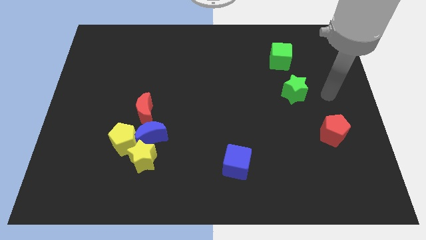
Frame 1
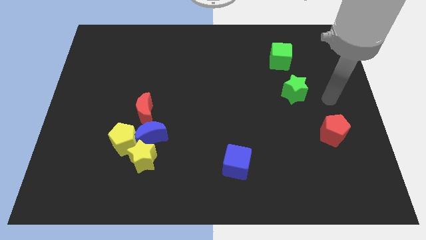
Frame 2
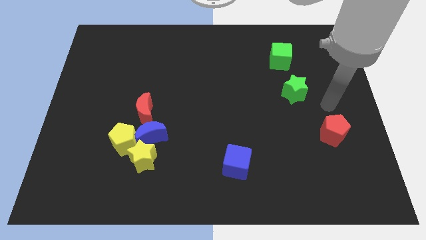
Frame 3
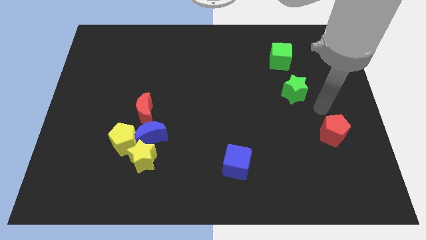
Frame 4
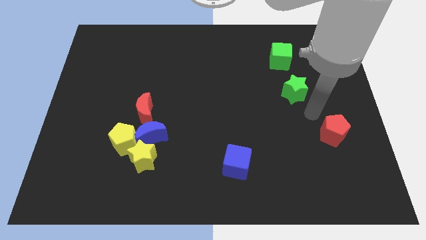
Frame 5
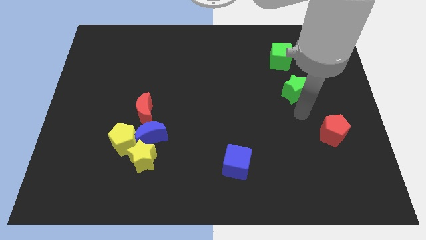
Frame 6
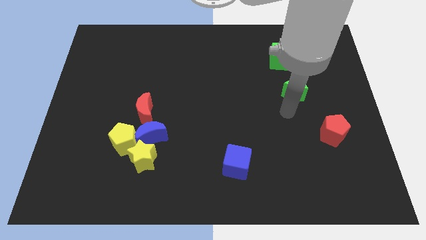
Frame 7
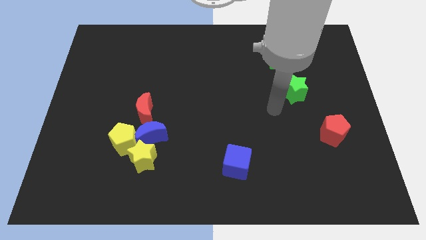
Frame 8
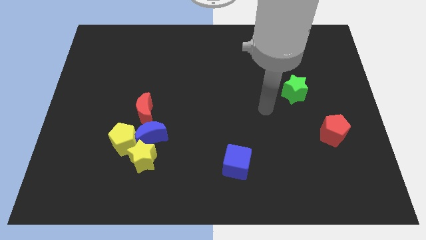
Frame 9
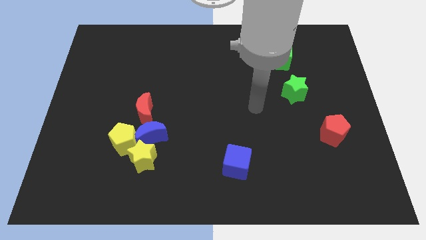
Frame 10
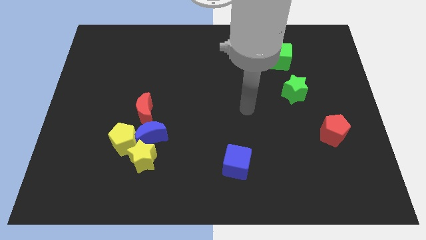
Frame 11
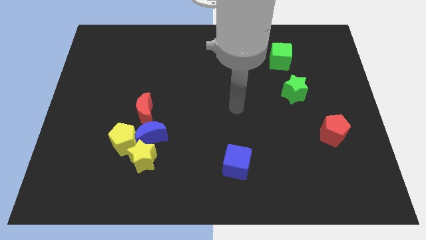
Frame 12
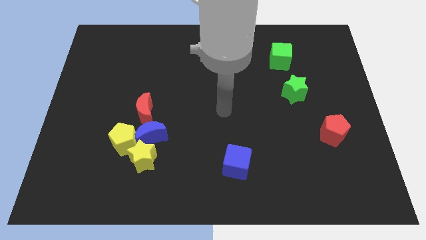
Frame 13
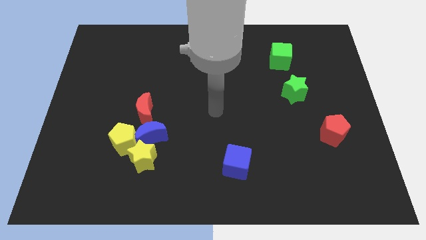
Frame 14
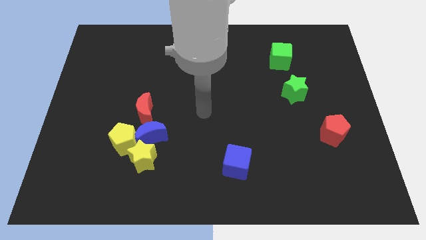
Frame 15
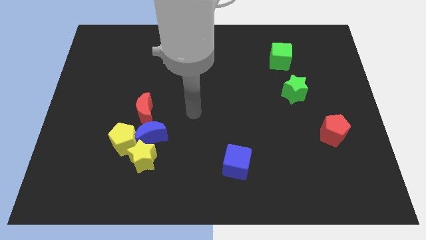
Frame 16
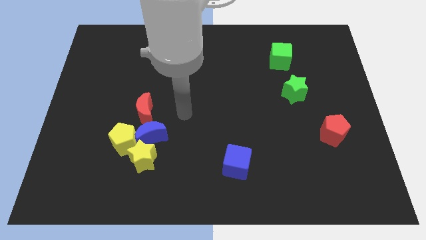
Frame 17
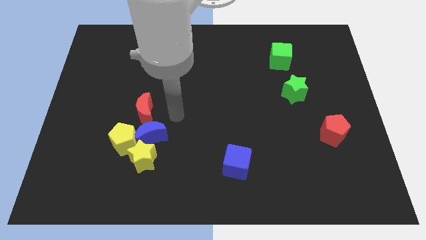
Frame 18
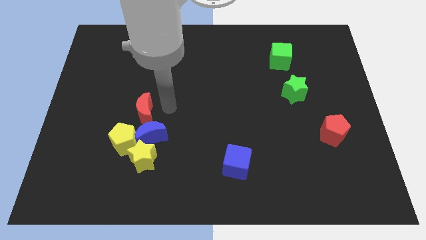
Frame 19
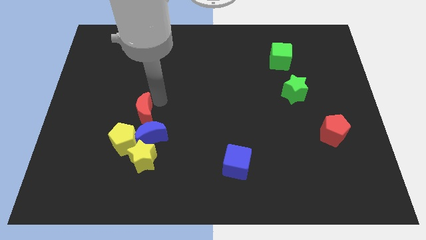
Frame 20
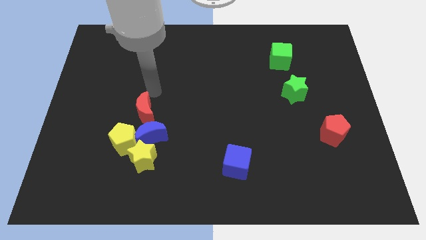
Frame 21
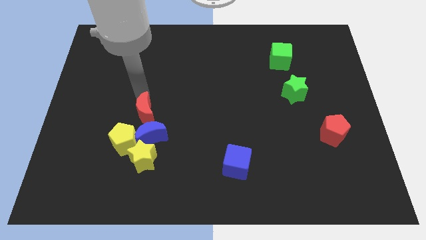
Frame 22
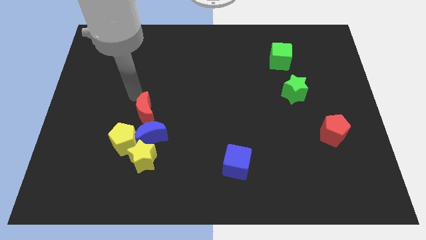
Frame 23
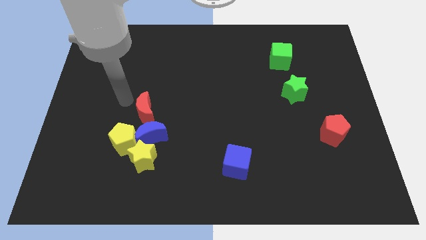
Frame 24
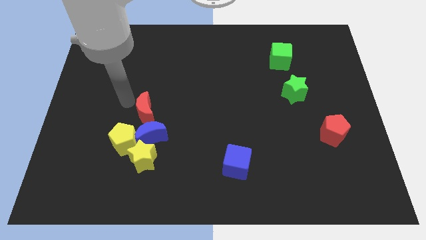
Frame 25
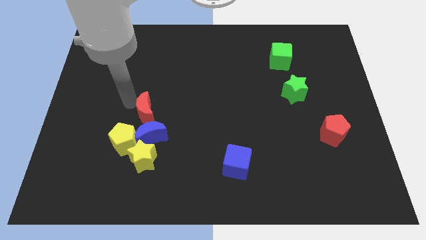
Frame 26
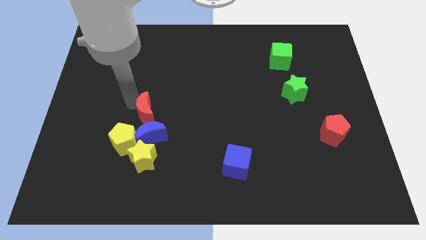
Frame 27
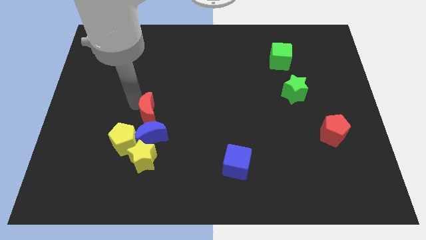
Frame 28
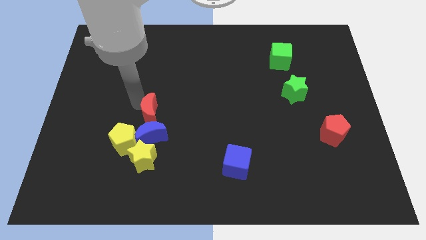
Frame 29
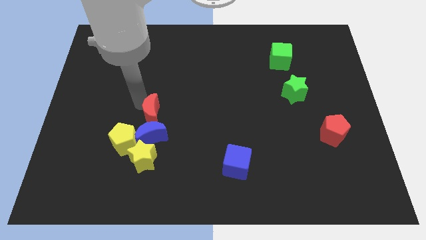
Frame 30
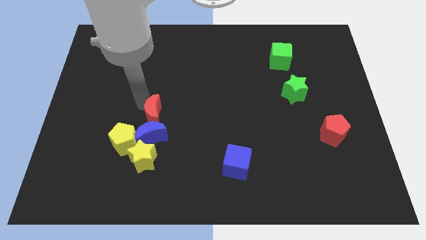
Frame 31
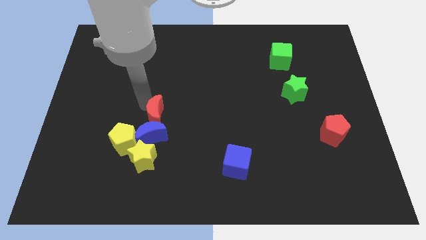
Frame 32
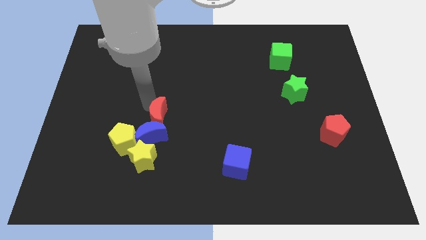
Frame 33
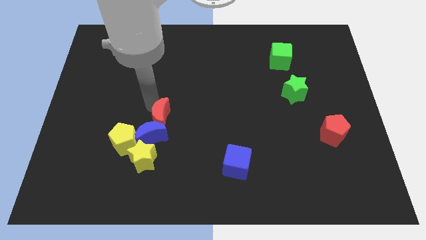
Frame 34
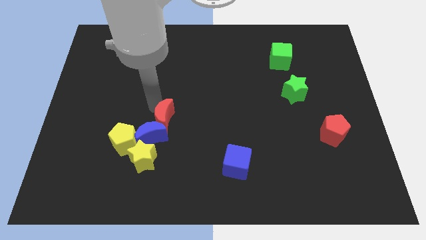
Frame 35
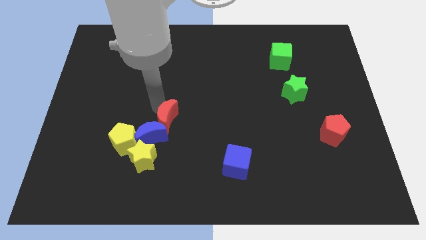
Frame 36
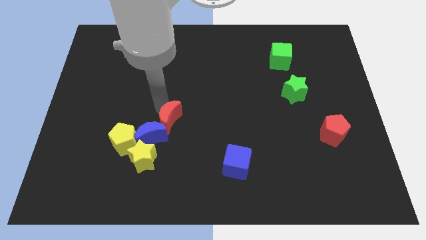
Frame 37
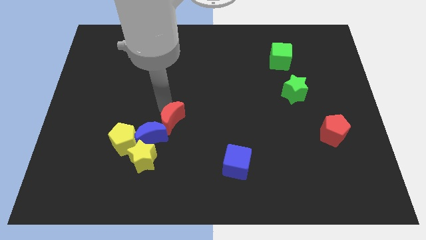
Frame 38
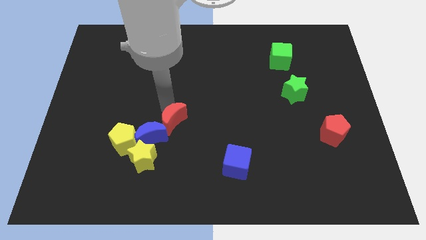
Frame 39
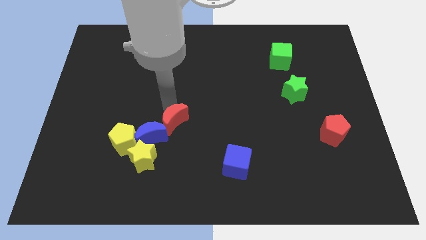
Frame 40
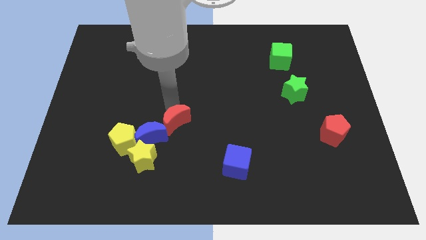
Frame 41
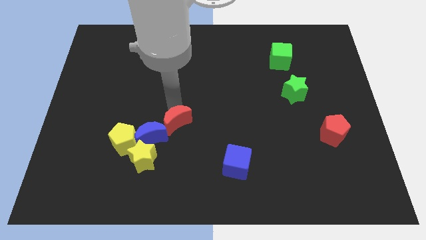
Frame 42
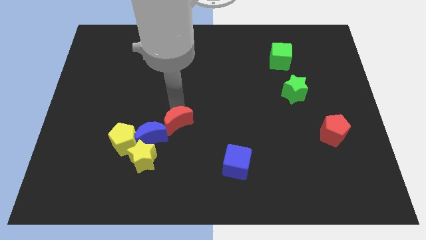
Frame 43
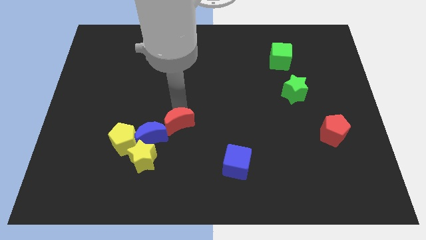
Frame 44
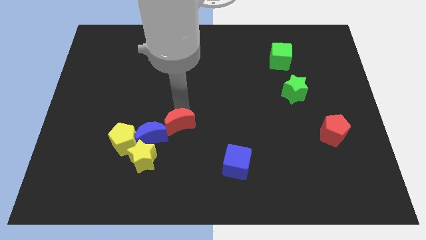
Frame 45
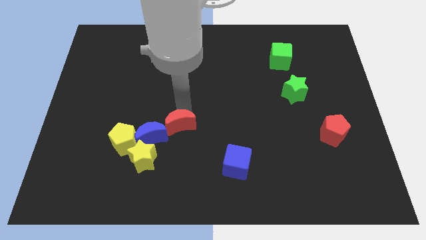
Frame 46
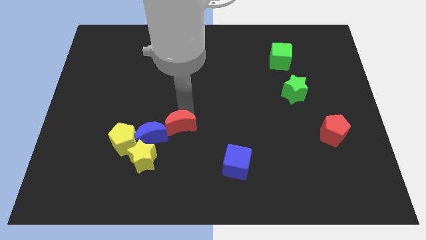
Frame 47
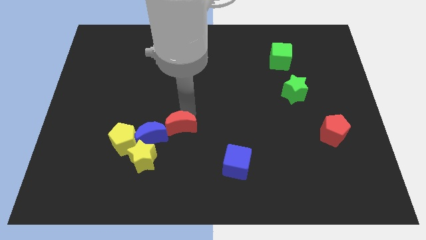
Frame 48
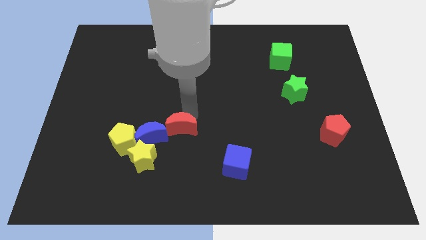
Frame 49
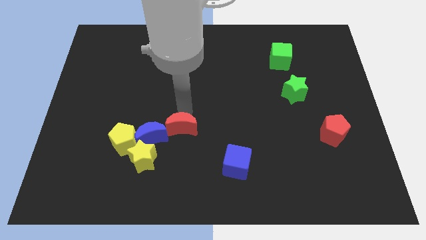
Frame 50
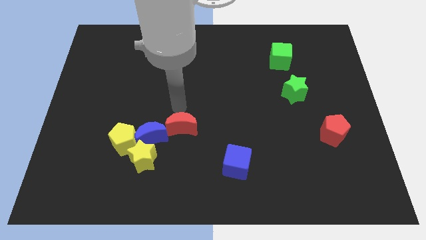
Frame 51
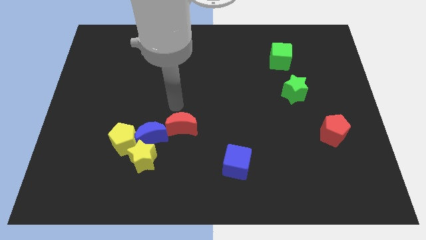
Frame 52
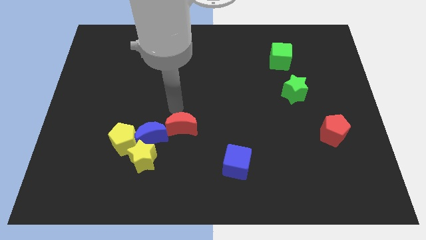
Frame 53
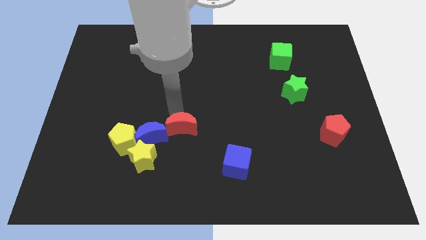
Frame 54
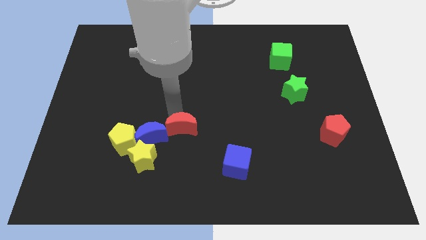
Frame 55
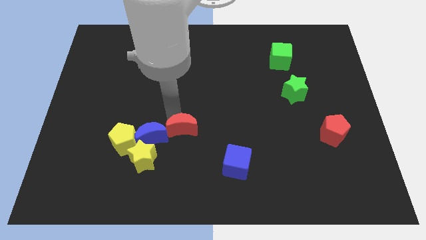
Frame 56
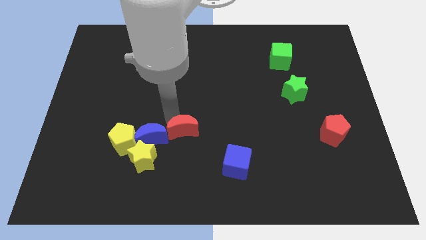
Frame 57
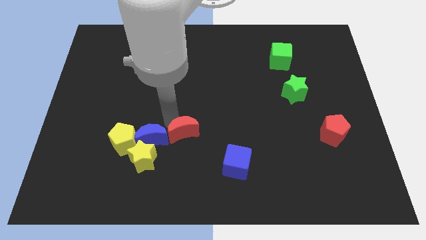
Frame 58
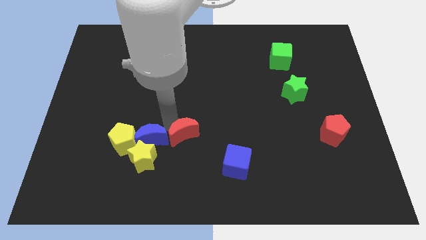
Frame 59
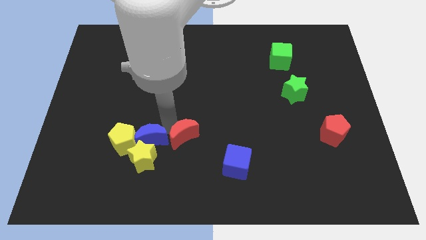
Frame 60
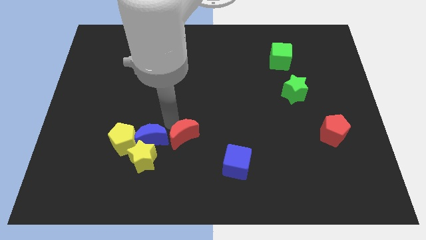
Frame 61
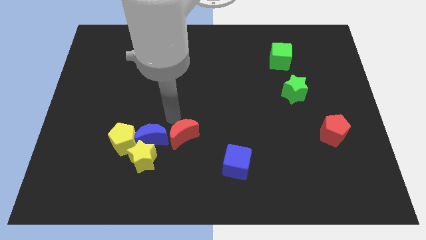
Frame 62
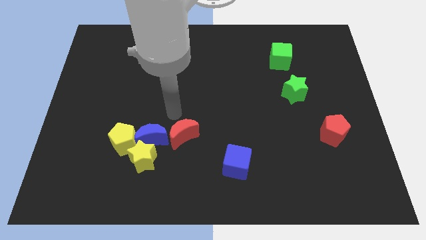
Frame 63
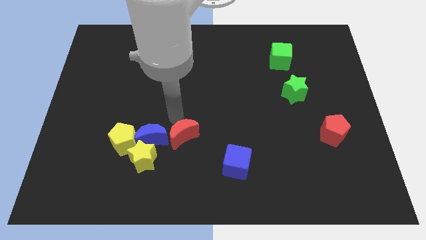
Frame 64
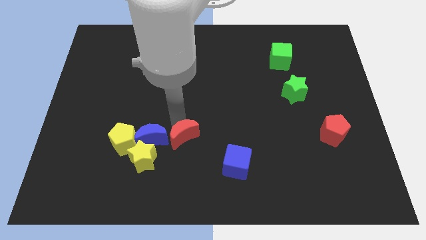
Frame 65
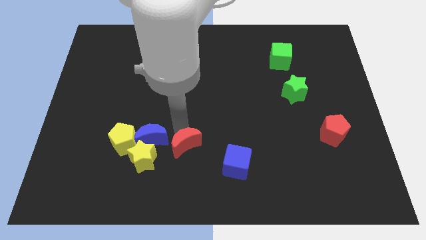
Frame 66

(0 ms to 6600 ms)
put the red moon right of the yellow star

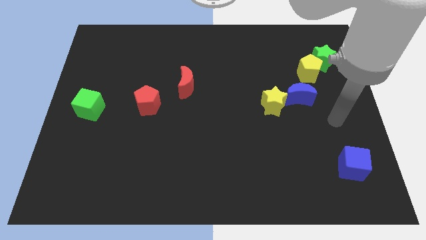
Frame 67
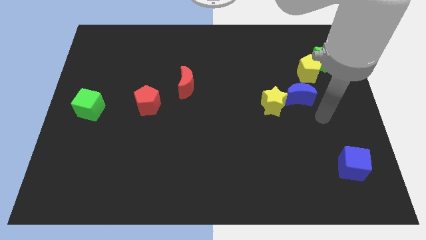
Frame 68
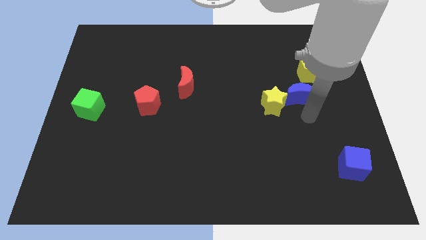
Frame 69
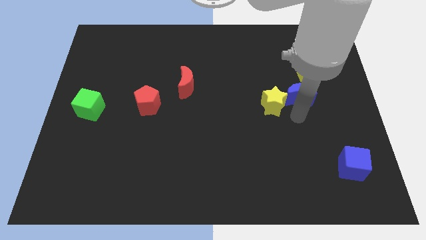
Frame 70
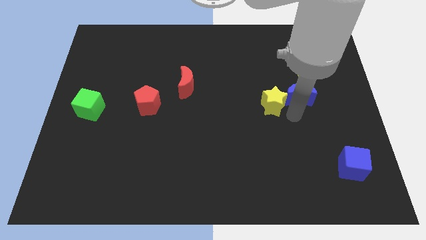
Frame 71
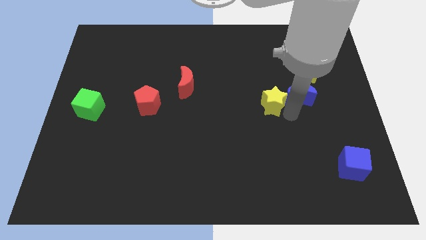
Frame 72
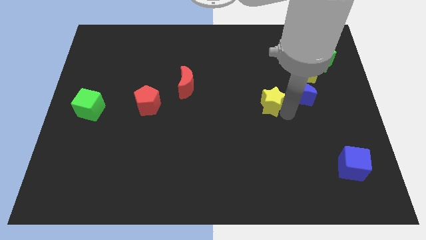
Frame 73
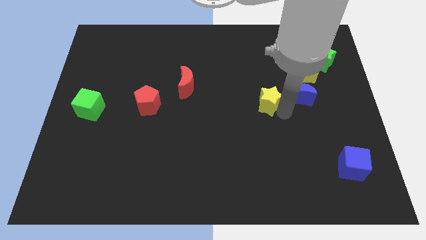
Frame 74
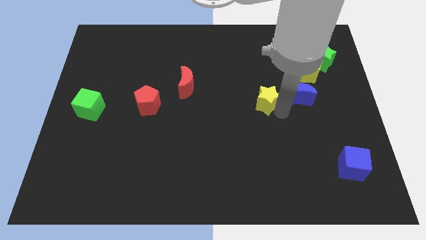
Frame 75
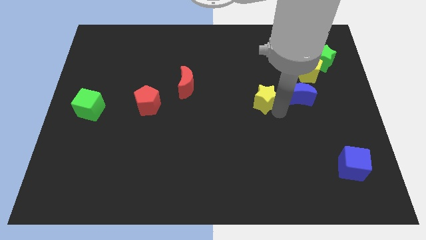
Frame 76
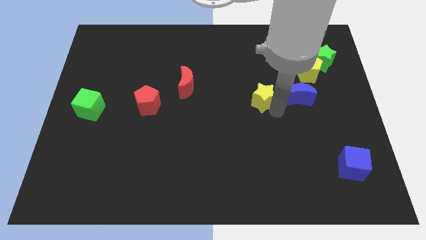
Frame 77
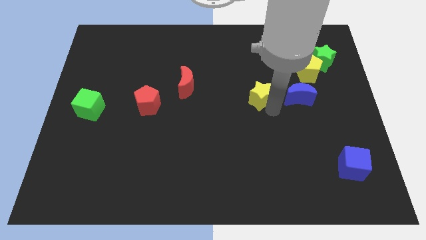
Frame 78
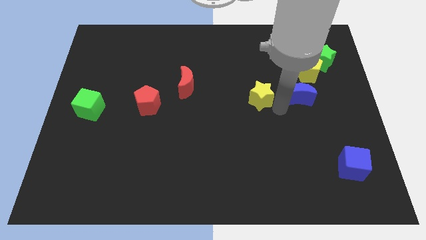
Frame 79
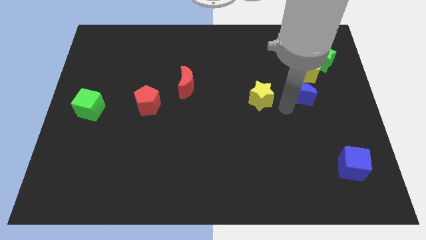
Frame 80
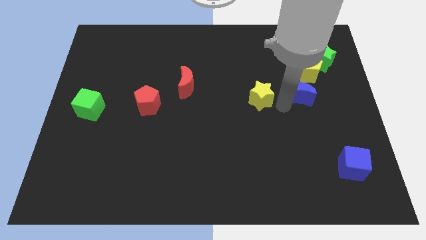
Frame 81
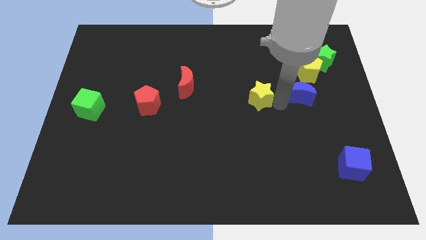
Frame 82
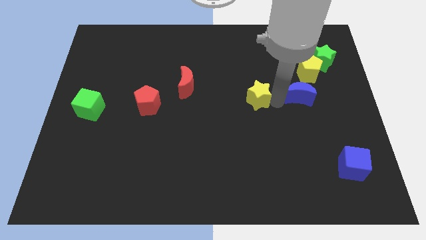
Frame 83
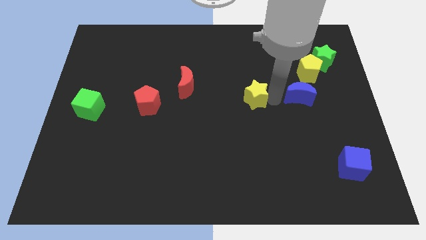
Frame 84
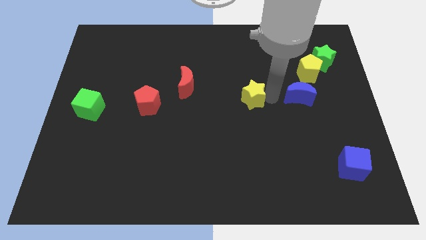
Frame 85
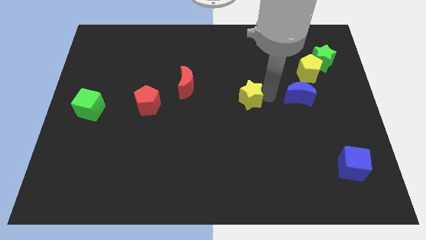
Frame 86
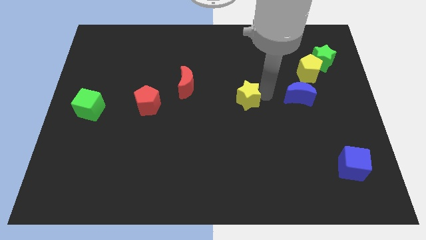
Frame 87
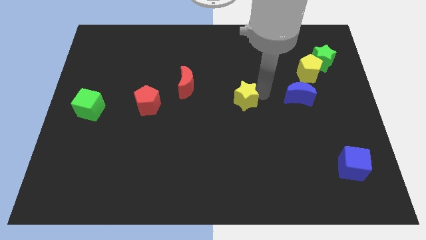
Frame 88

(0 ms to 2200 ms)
put the yellow star just right of the red moon
